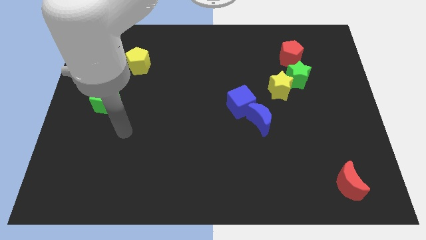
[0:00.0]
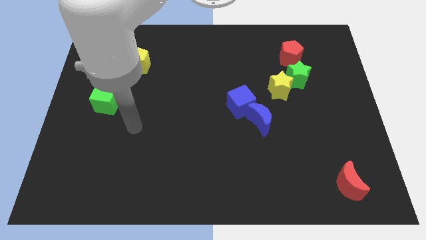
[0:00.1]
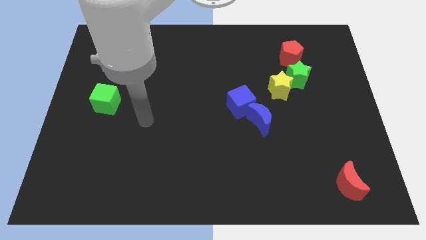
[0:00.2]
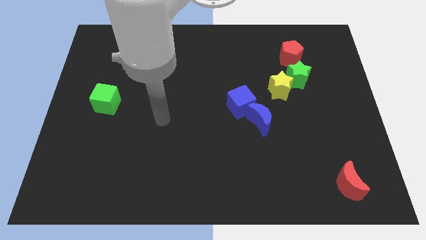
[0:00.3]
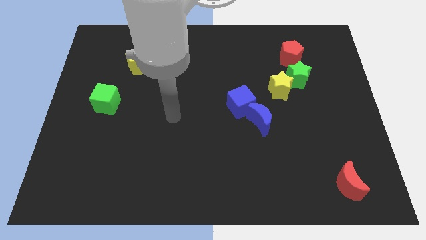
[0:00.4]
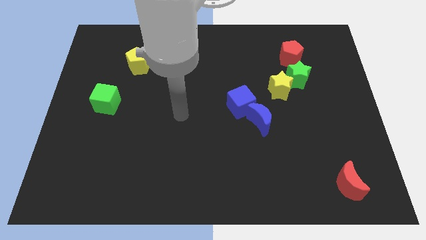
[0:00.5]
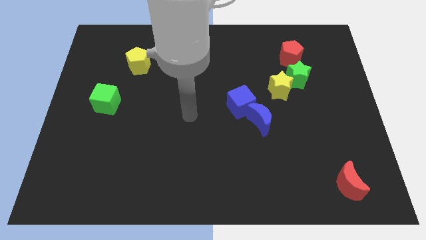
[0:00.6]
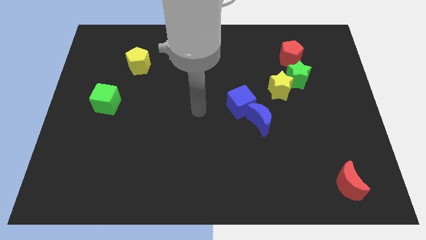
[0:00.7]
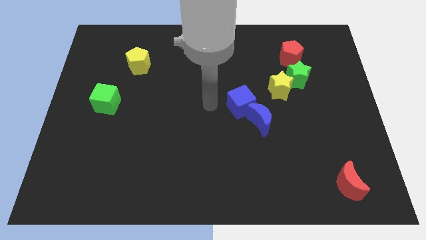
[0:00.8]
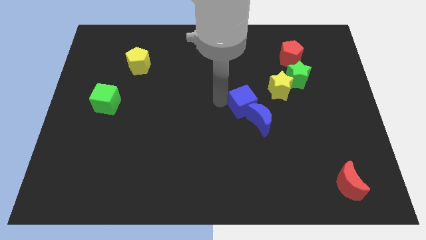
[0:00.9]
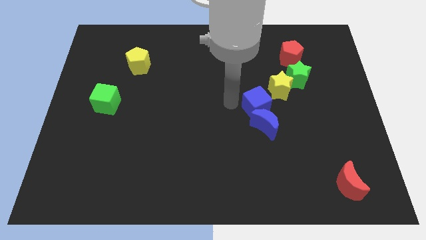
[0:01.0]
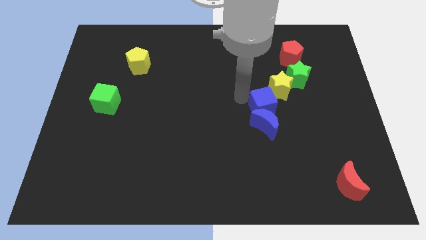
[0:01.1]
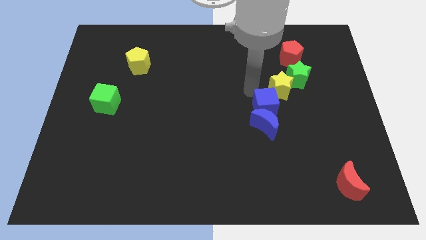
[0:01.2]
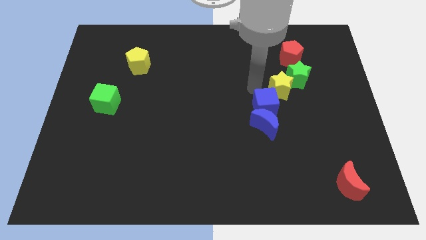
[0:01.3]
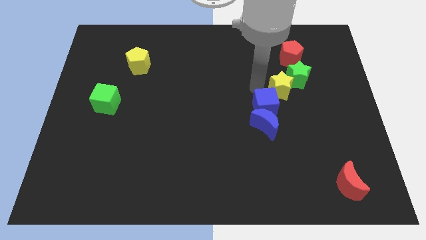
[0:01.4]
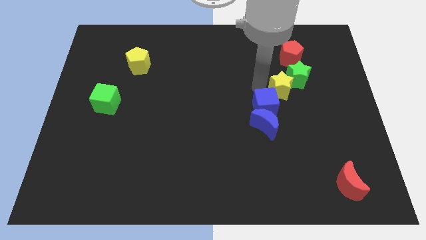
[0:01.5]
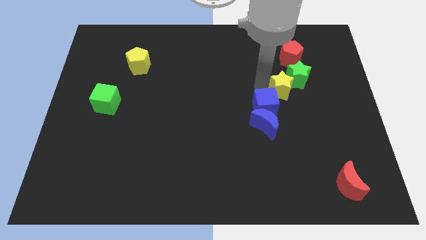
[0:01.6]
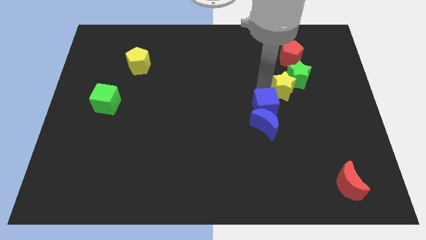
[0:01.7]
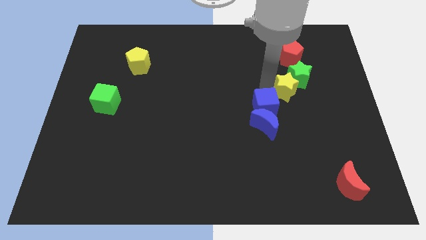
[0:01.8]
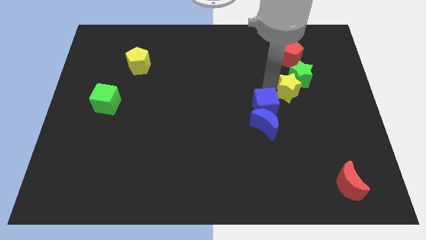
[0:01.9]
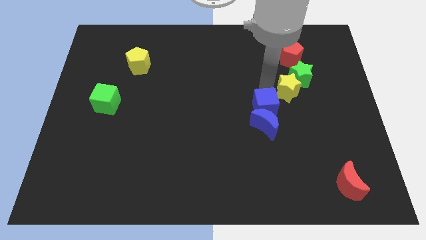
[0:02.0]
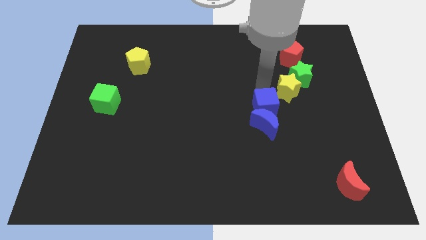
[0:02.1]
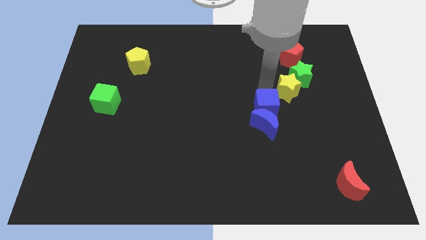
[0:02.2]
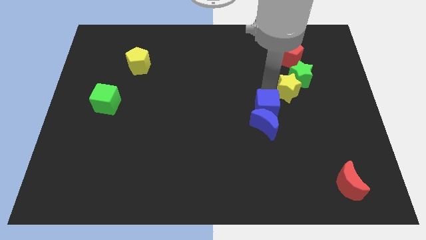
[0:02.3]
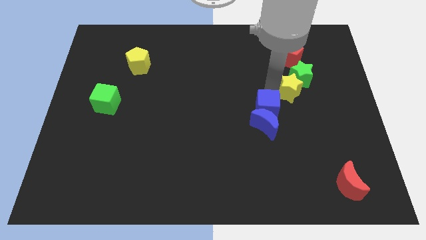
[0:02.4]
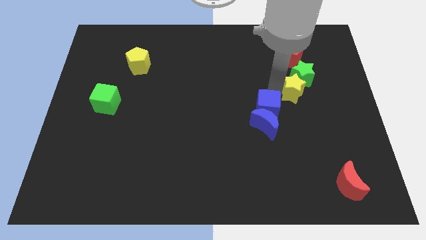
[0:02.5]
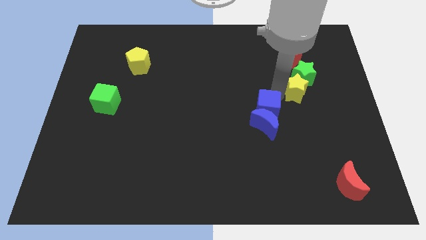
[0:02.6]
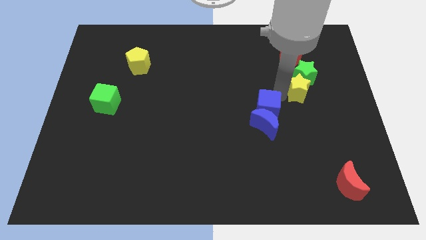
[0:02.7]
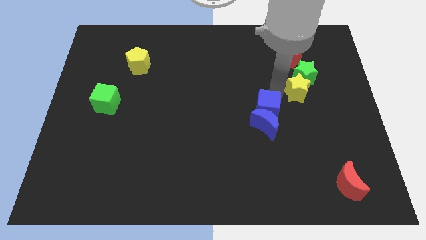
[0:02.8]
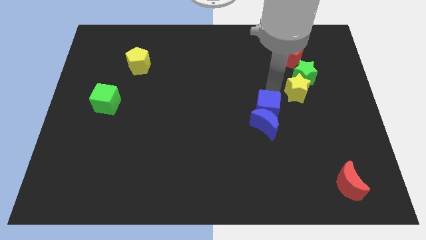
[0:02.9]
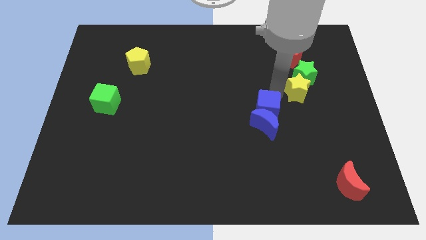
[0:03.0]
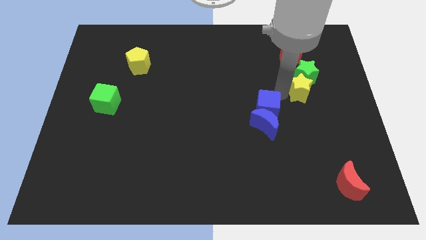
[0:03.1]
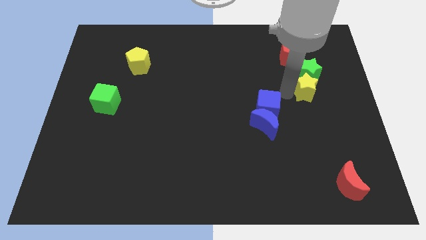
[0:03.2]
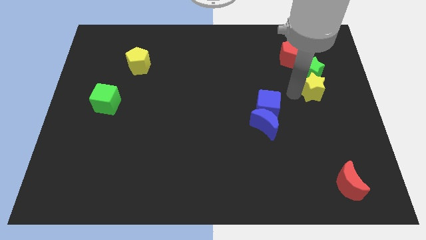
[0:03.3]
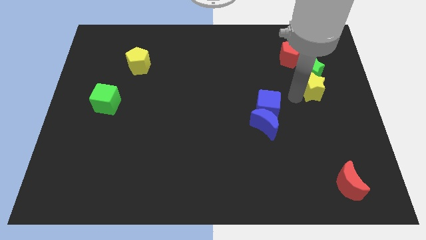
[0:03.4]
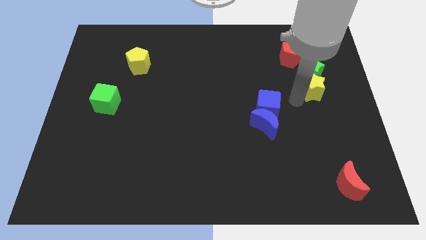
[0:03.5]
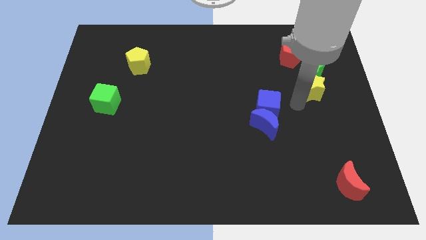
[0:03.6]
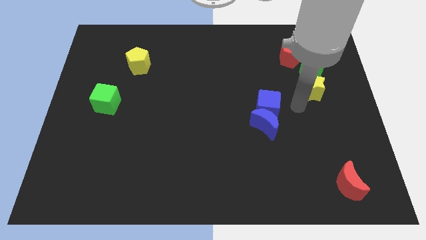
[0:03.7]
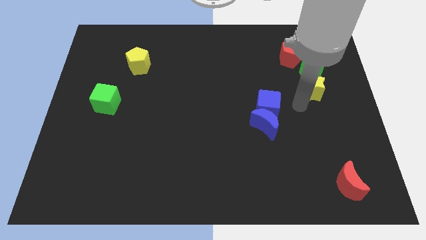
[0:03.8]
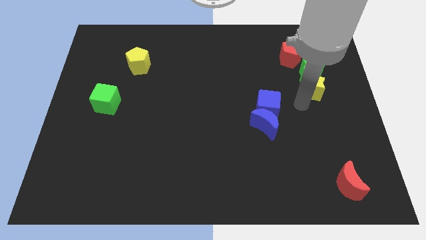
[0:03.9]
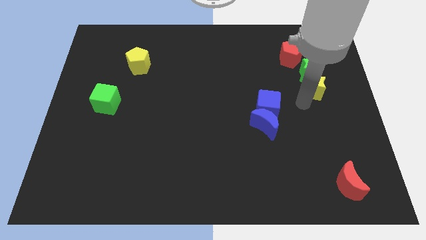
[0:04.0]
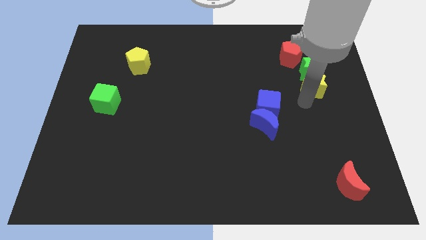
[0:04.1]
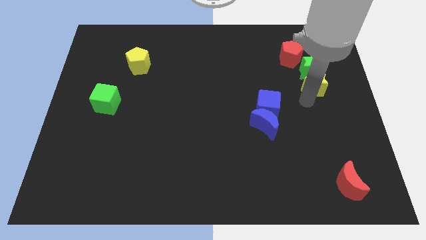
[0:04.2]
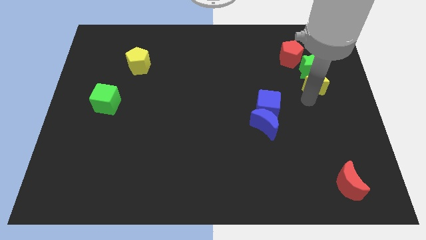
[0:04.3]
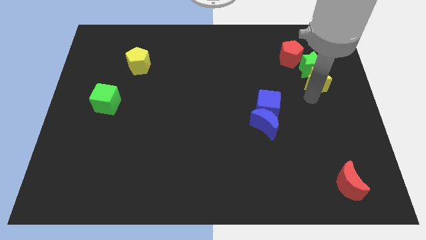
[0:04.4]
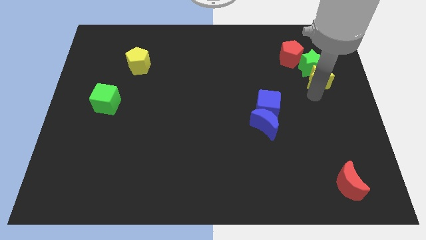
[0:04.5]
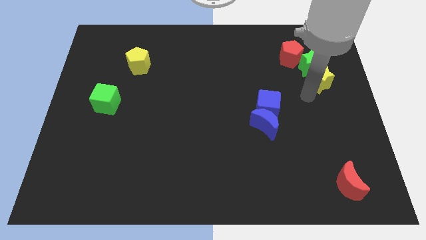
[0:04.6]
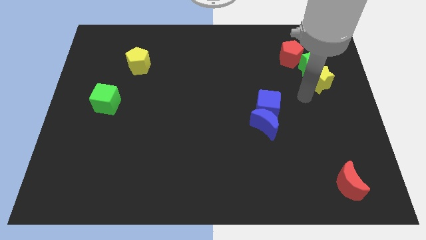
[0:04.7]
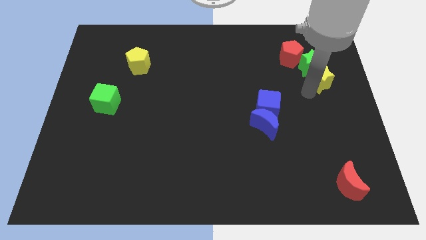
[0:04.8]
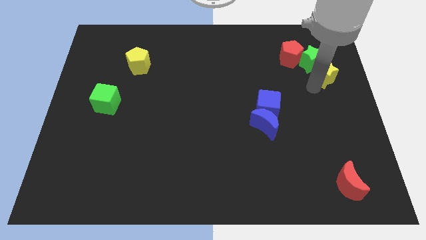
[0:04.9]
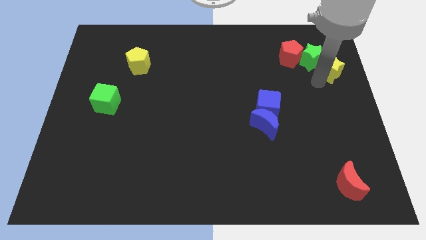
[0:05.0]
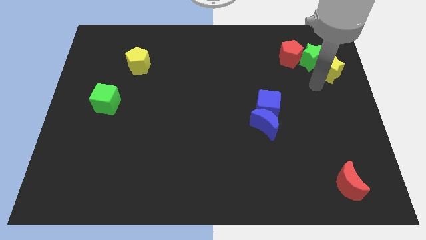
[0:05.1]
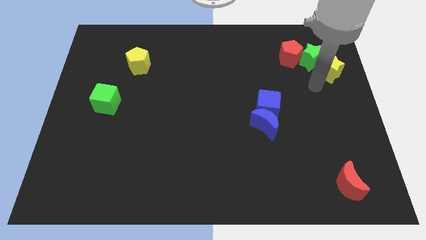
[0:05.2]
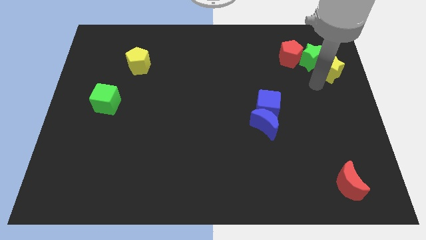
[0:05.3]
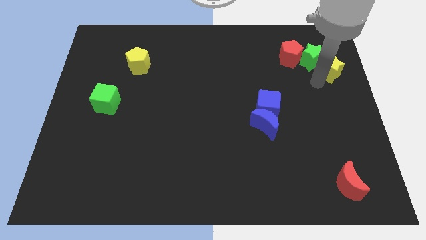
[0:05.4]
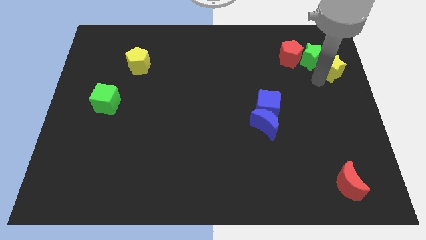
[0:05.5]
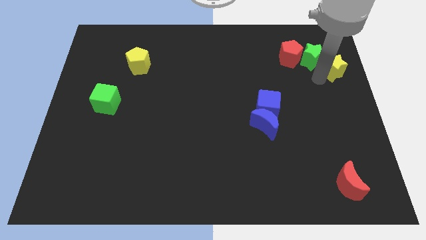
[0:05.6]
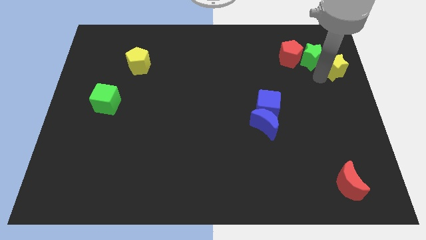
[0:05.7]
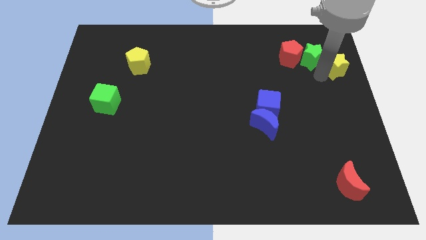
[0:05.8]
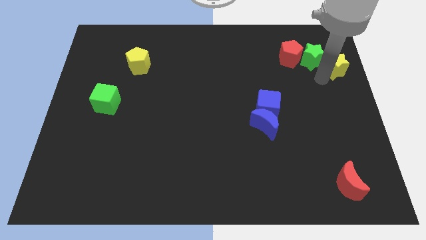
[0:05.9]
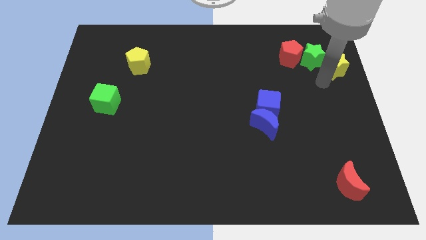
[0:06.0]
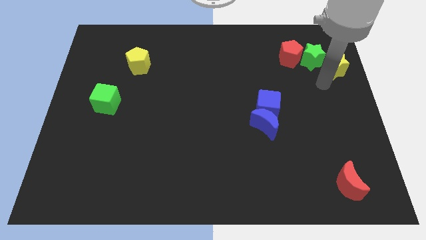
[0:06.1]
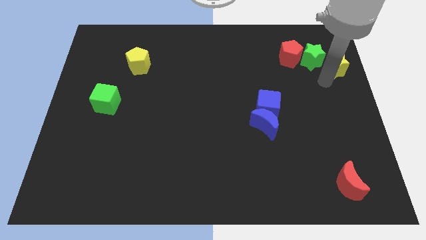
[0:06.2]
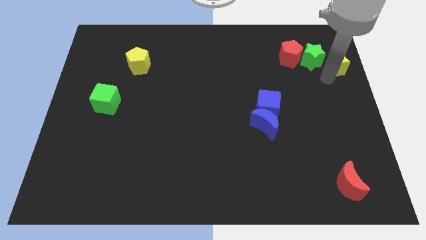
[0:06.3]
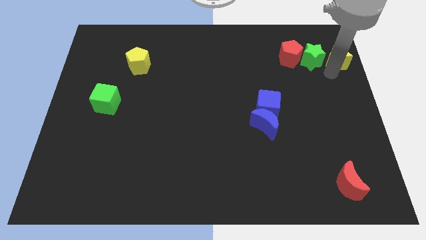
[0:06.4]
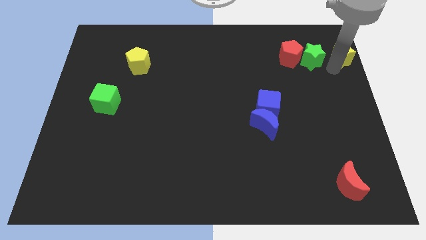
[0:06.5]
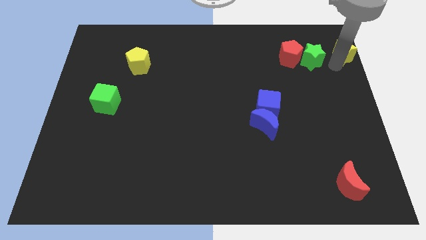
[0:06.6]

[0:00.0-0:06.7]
move the yellow star to the top right corner

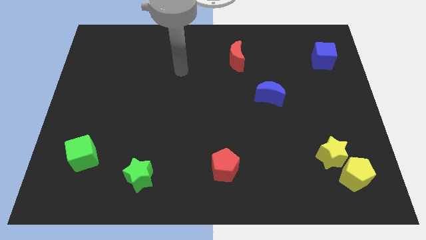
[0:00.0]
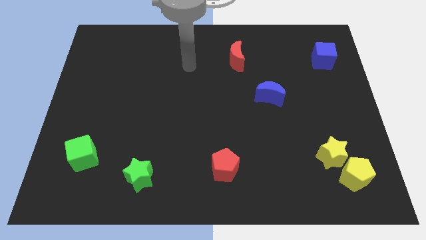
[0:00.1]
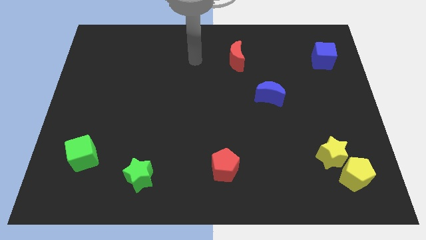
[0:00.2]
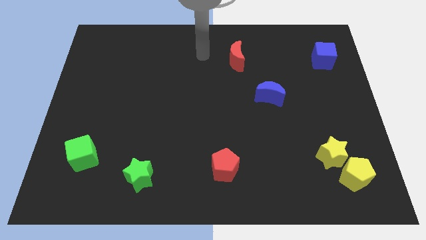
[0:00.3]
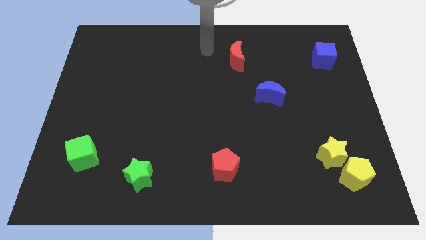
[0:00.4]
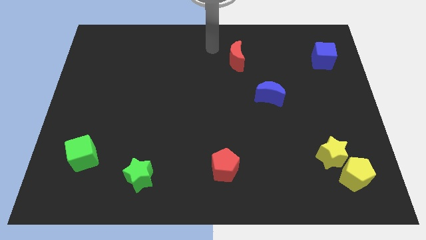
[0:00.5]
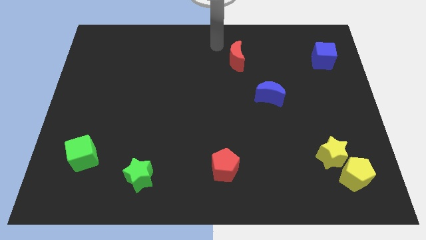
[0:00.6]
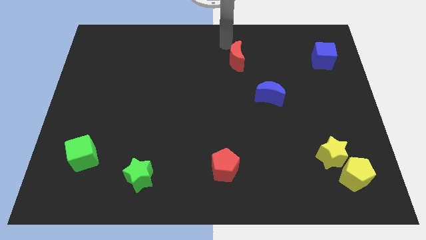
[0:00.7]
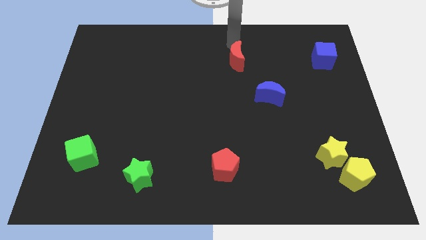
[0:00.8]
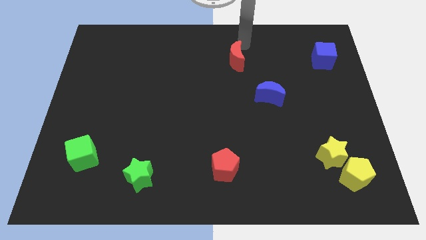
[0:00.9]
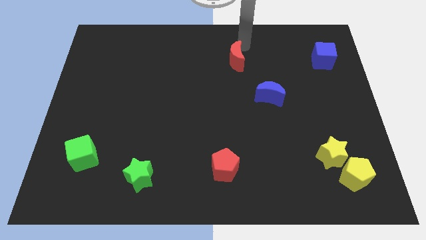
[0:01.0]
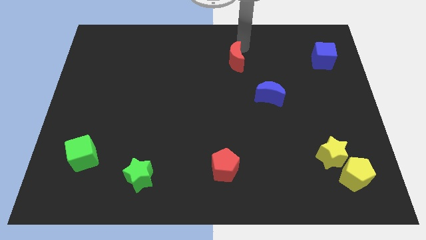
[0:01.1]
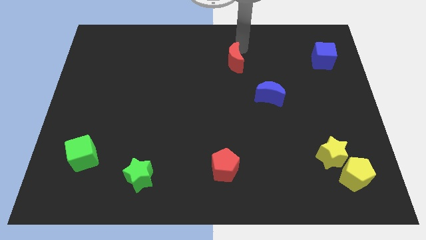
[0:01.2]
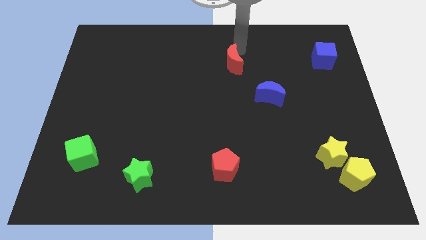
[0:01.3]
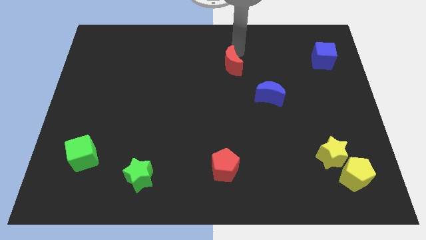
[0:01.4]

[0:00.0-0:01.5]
move the red moon to the center
